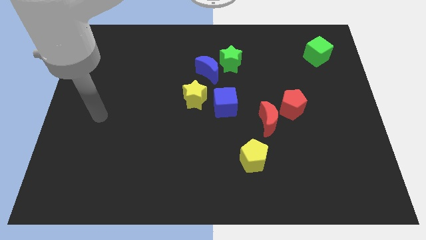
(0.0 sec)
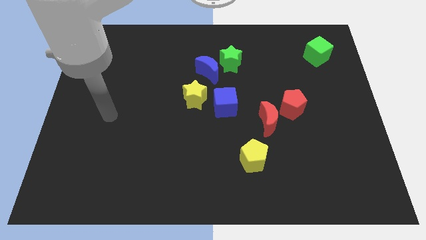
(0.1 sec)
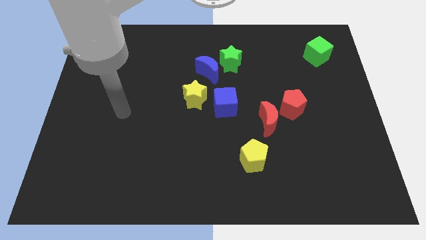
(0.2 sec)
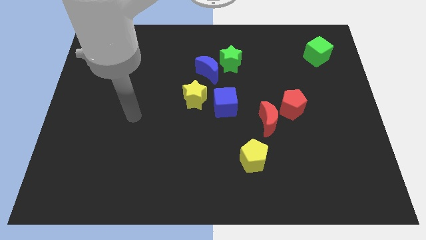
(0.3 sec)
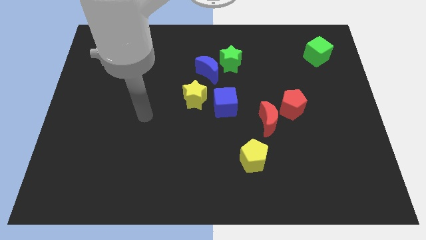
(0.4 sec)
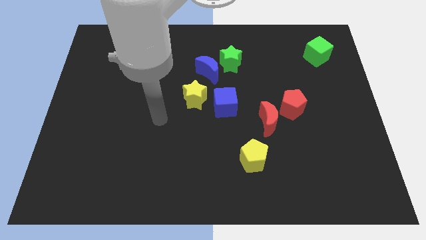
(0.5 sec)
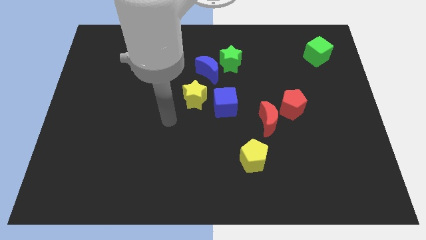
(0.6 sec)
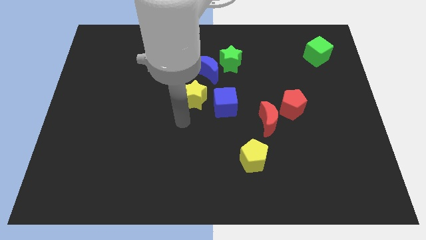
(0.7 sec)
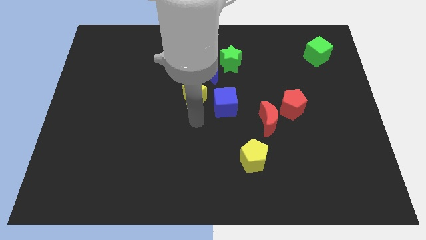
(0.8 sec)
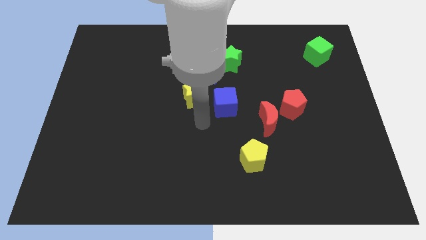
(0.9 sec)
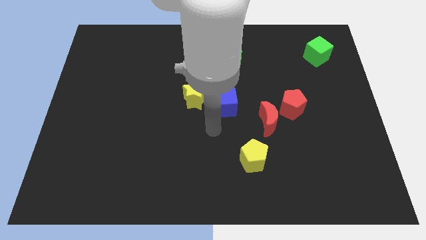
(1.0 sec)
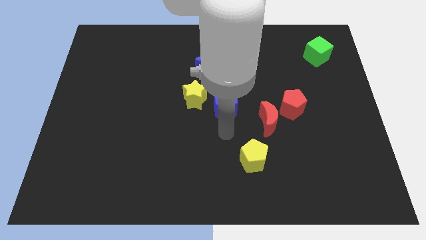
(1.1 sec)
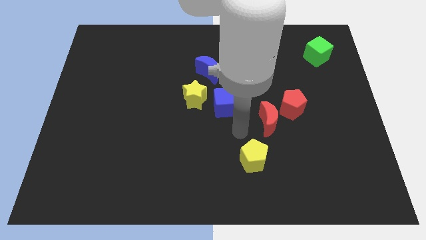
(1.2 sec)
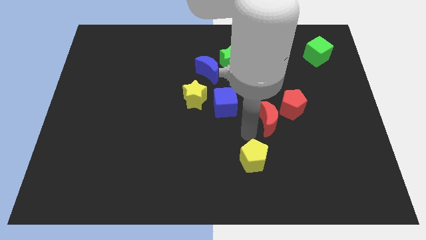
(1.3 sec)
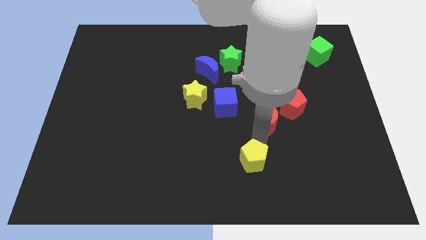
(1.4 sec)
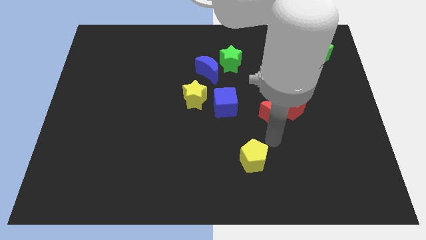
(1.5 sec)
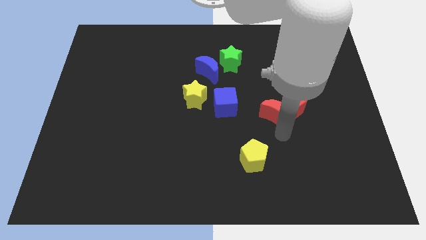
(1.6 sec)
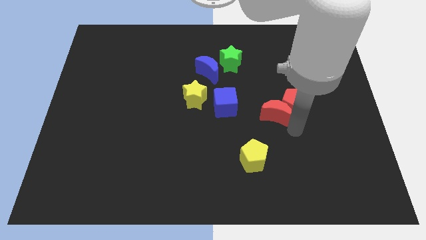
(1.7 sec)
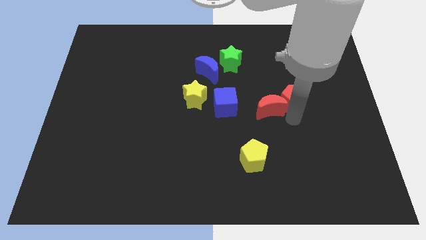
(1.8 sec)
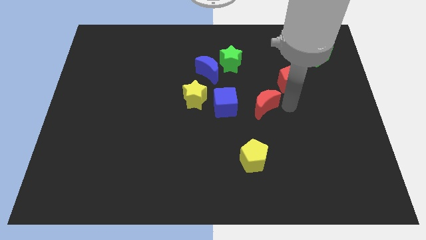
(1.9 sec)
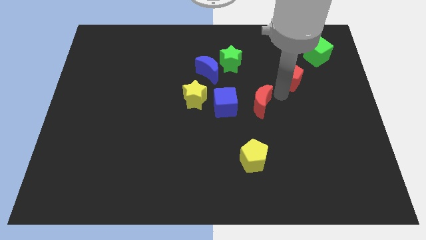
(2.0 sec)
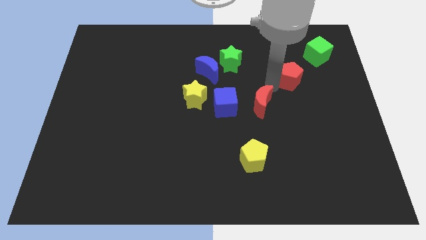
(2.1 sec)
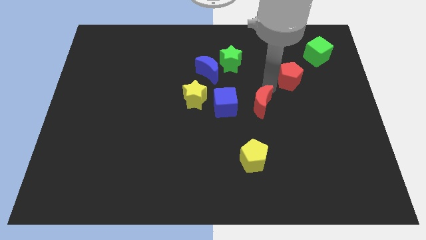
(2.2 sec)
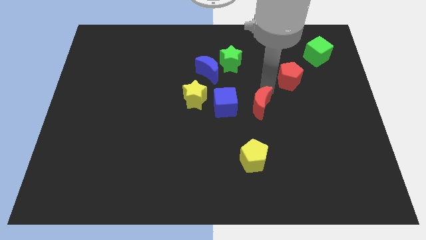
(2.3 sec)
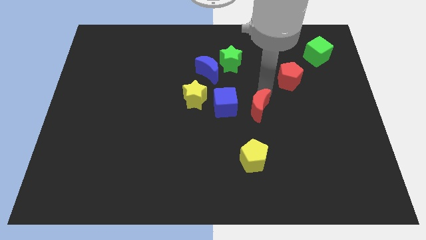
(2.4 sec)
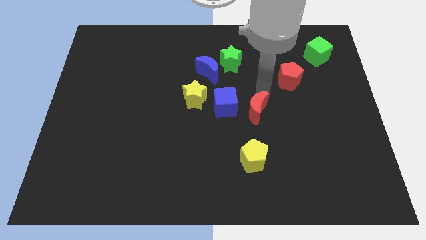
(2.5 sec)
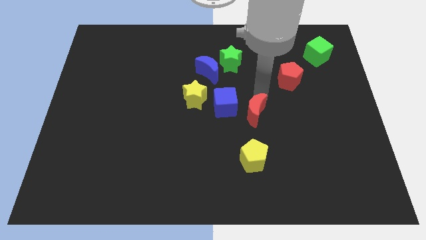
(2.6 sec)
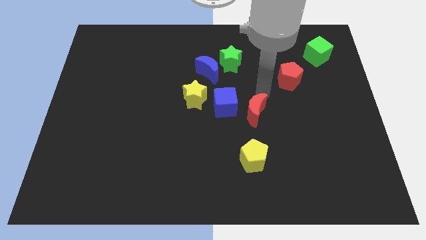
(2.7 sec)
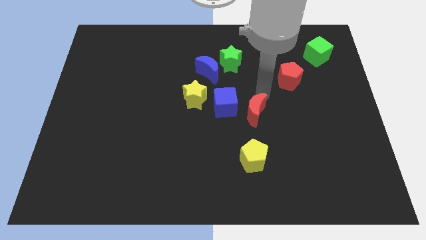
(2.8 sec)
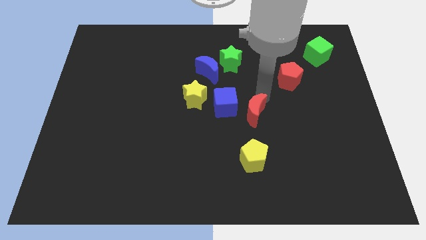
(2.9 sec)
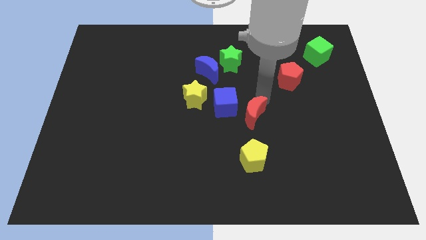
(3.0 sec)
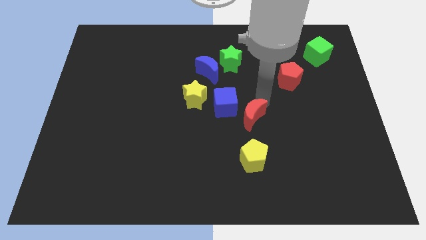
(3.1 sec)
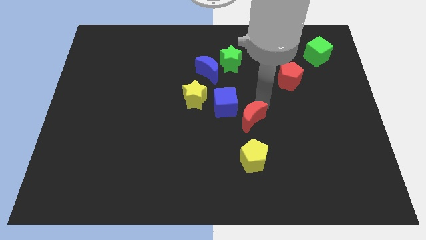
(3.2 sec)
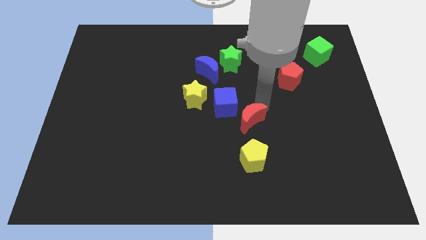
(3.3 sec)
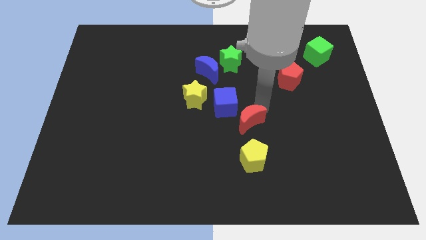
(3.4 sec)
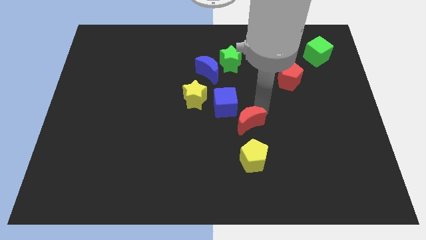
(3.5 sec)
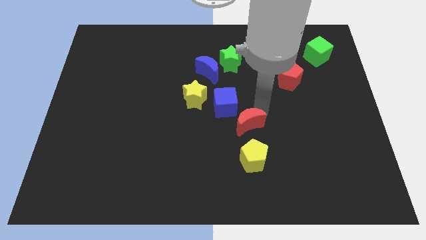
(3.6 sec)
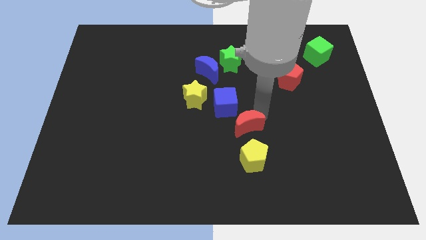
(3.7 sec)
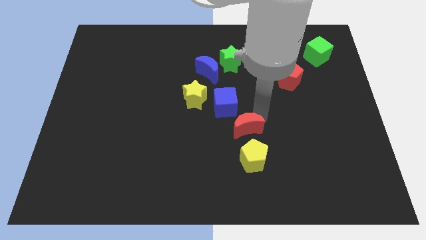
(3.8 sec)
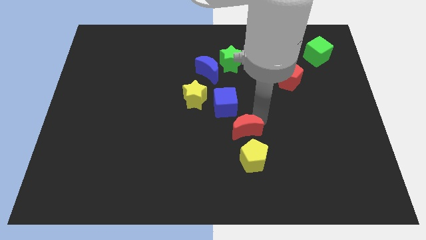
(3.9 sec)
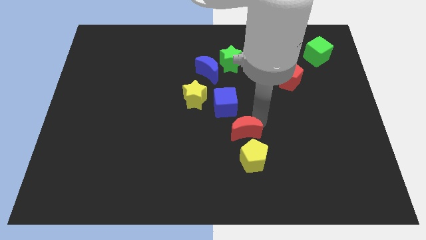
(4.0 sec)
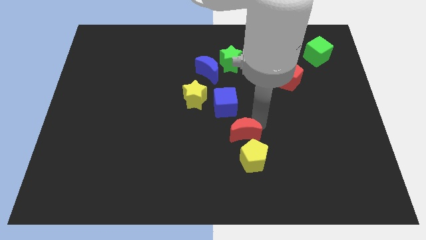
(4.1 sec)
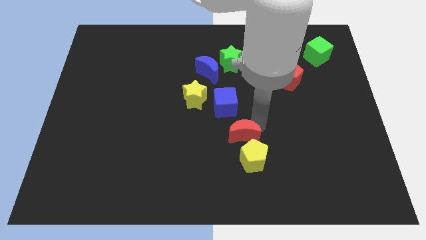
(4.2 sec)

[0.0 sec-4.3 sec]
slightly slide the red moon downwards and then to the left

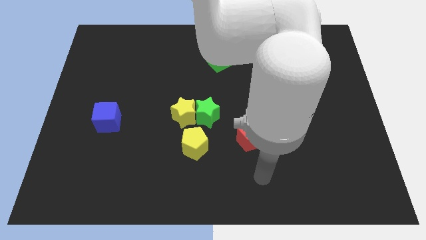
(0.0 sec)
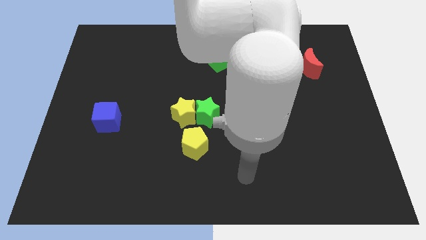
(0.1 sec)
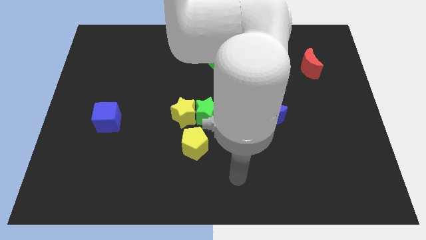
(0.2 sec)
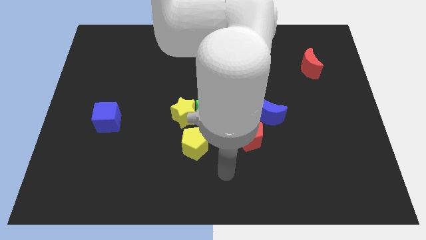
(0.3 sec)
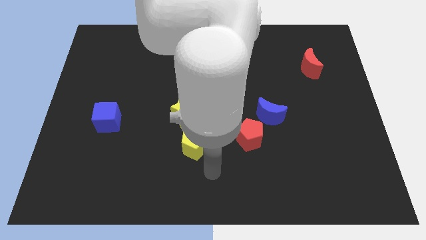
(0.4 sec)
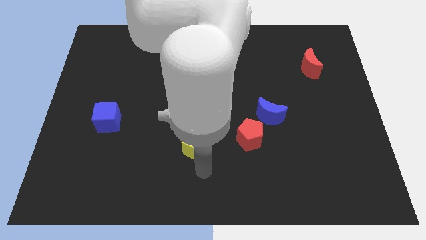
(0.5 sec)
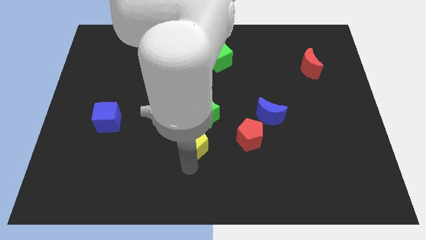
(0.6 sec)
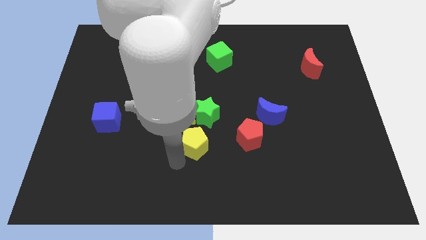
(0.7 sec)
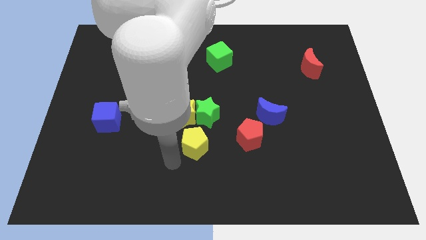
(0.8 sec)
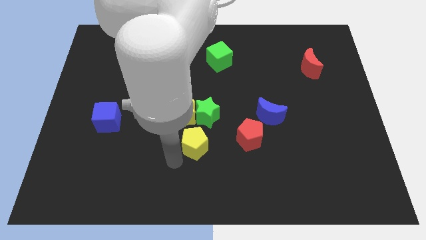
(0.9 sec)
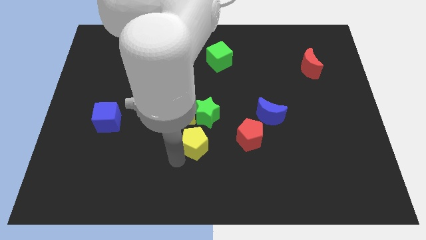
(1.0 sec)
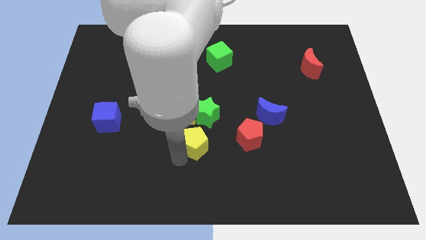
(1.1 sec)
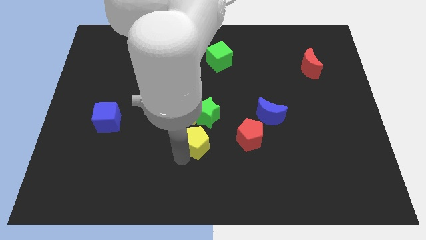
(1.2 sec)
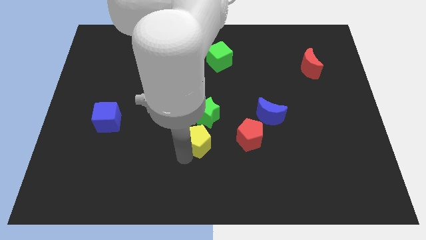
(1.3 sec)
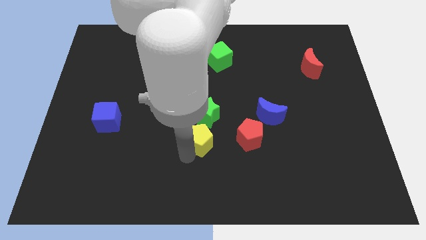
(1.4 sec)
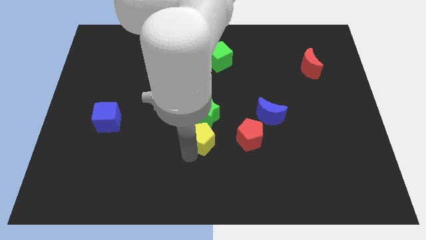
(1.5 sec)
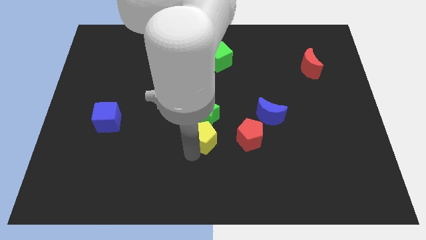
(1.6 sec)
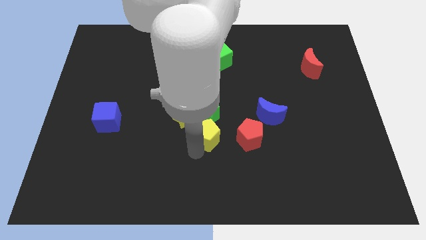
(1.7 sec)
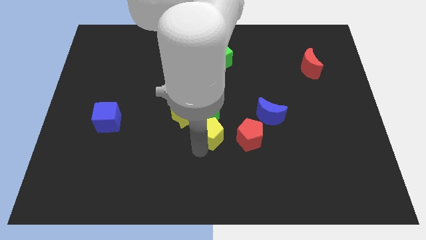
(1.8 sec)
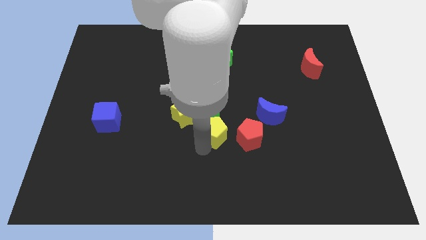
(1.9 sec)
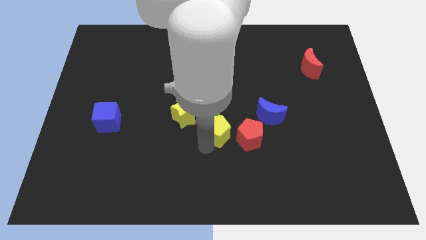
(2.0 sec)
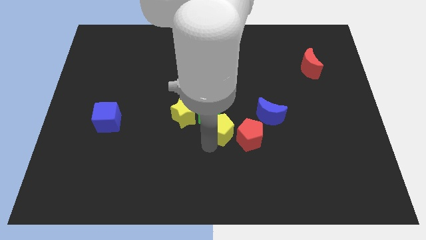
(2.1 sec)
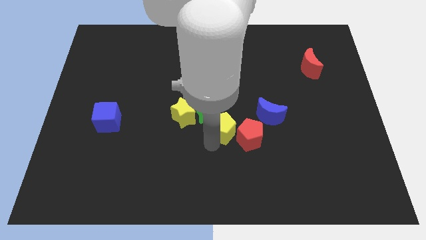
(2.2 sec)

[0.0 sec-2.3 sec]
push the yellow pentagon up and right diagonally a little

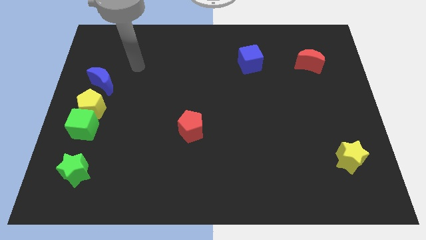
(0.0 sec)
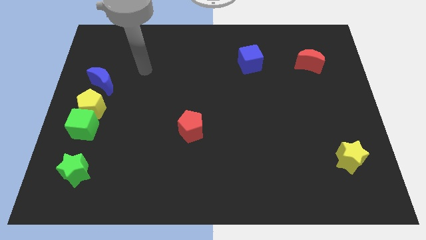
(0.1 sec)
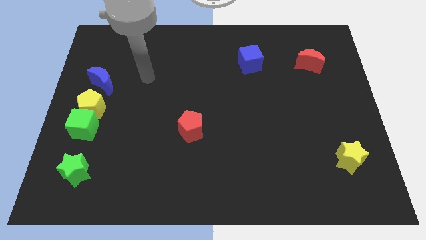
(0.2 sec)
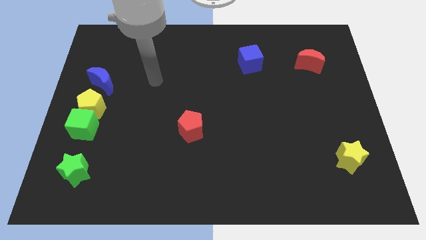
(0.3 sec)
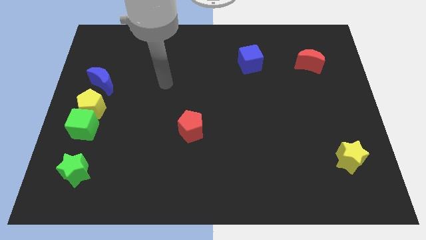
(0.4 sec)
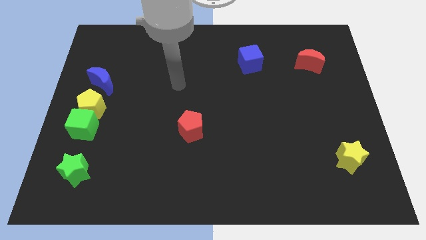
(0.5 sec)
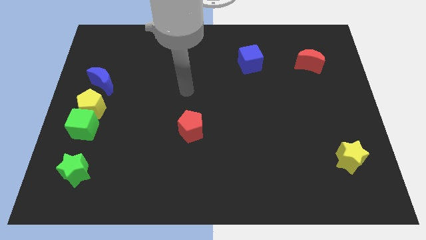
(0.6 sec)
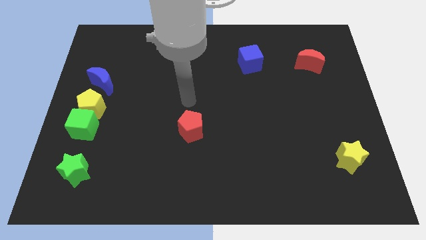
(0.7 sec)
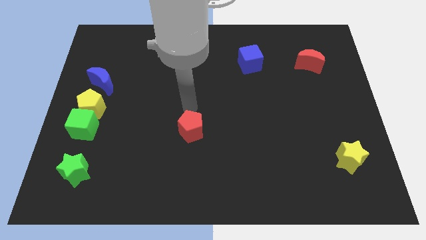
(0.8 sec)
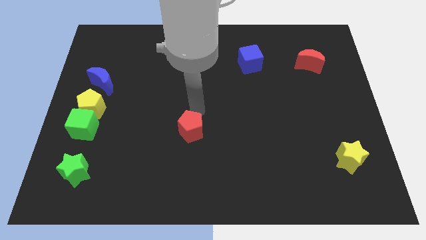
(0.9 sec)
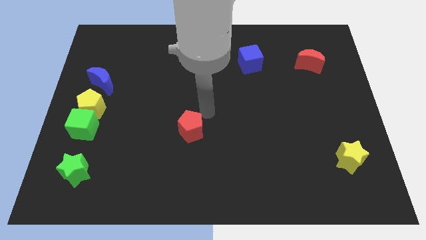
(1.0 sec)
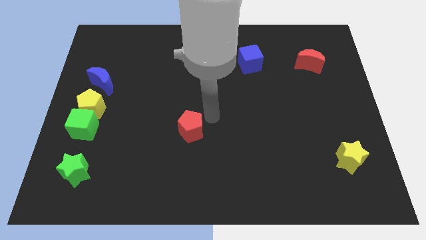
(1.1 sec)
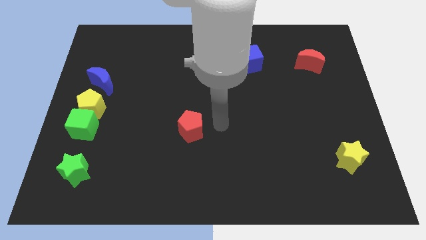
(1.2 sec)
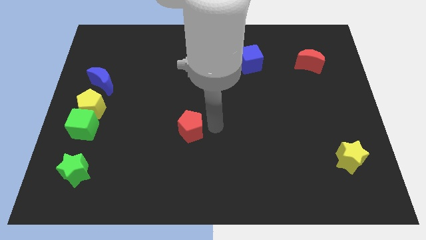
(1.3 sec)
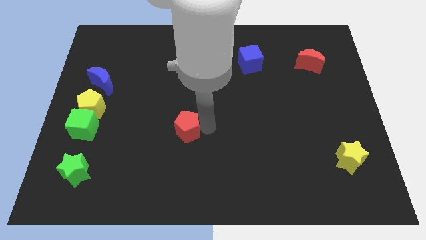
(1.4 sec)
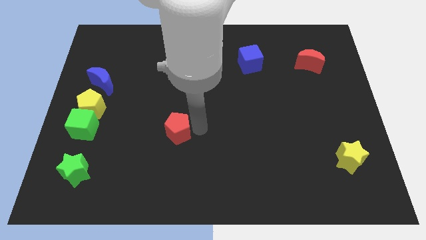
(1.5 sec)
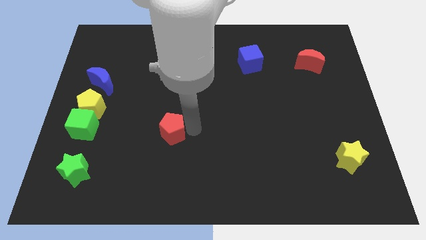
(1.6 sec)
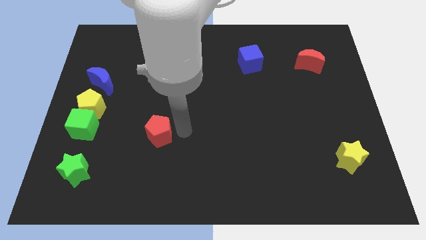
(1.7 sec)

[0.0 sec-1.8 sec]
slide the red pentagon somewhat to the left
